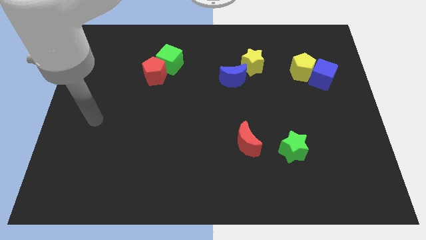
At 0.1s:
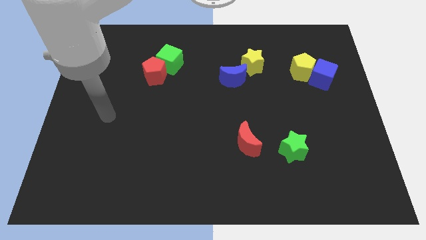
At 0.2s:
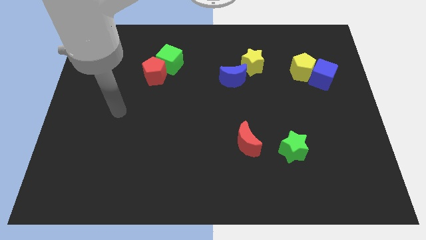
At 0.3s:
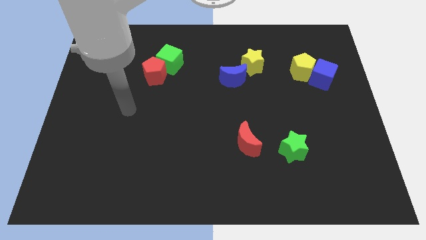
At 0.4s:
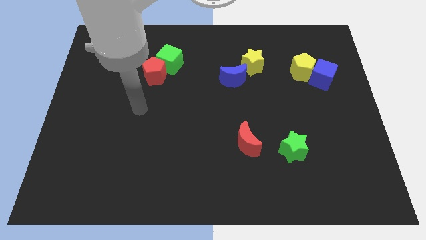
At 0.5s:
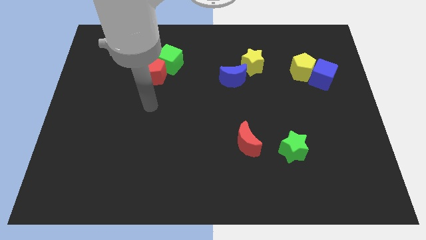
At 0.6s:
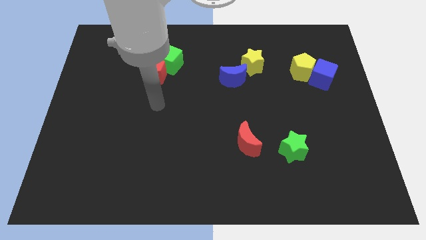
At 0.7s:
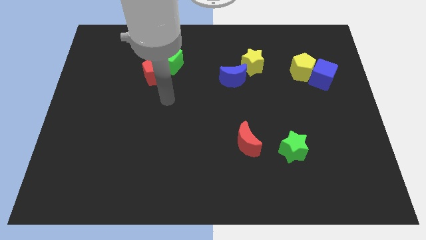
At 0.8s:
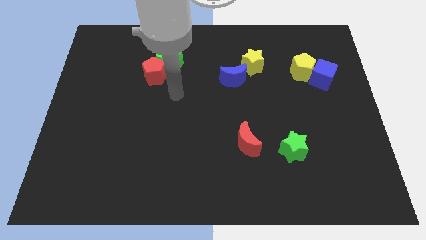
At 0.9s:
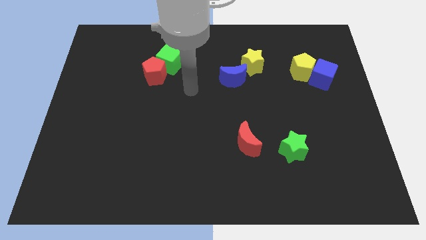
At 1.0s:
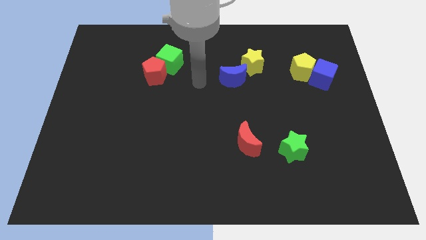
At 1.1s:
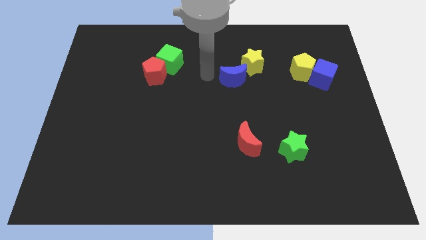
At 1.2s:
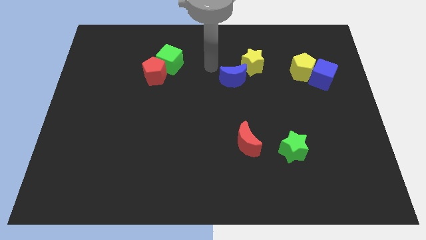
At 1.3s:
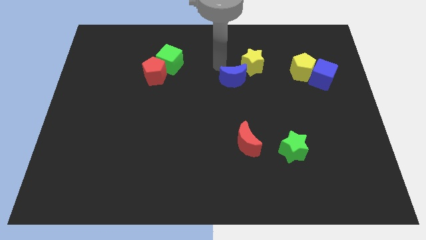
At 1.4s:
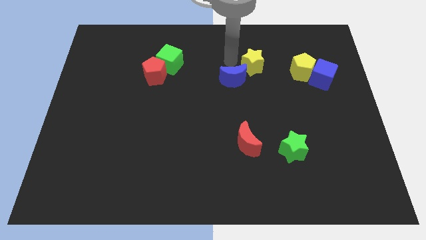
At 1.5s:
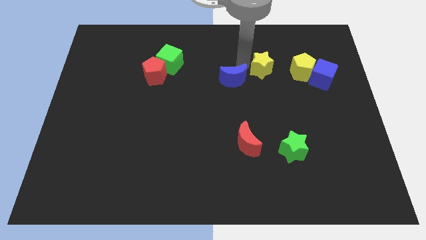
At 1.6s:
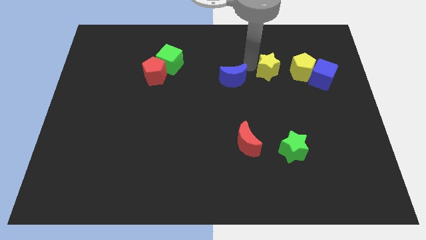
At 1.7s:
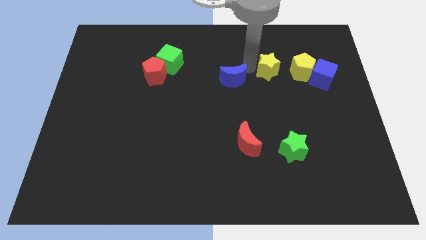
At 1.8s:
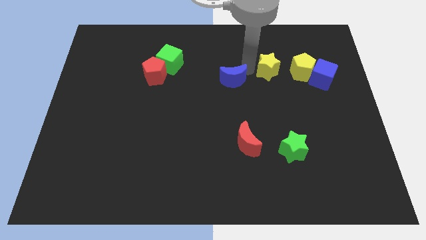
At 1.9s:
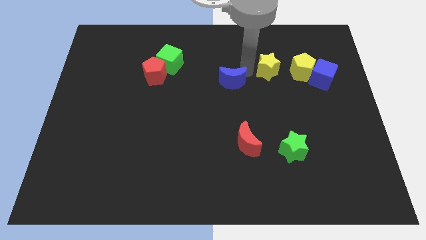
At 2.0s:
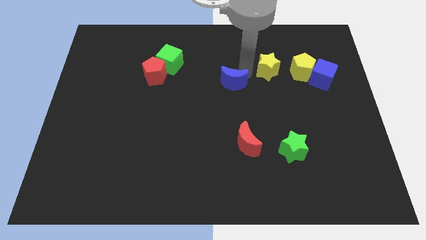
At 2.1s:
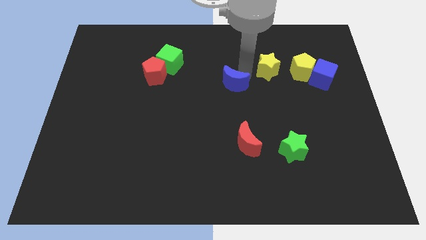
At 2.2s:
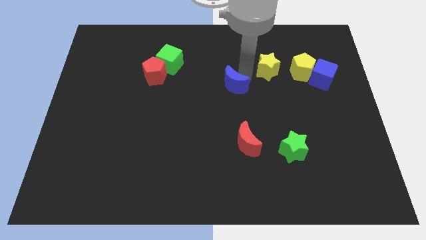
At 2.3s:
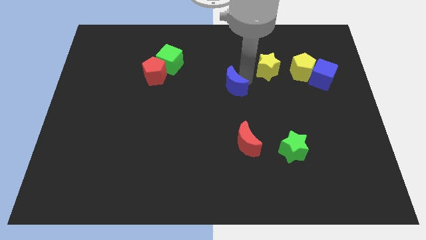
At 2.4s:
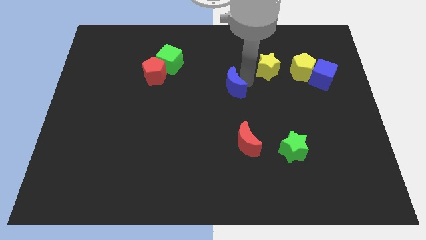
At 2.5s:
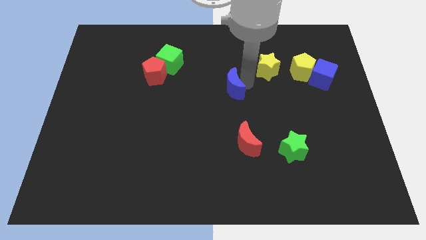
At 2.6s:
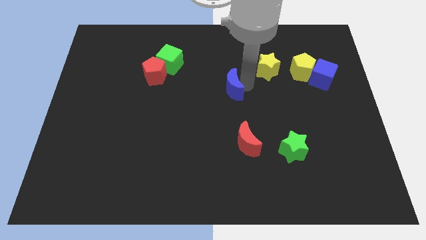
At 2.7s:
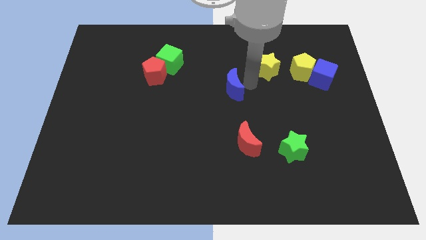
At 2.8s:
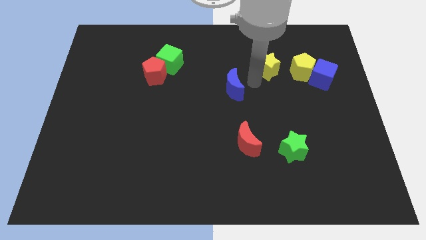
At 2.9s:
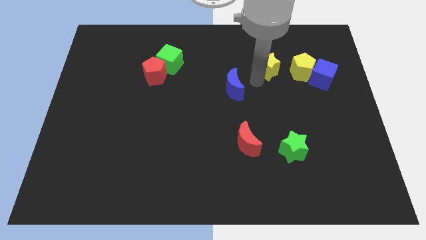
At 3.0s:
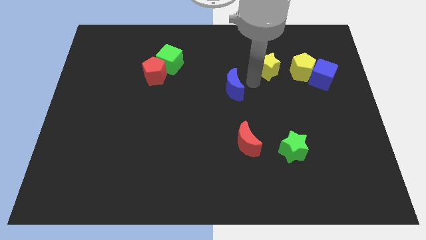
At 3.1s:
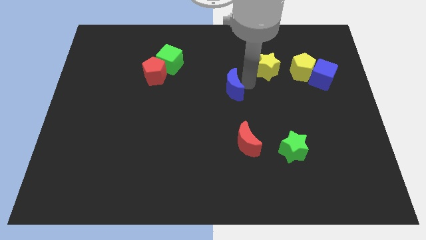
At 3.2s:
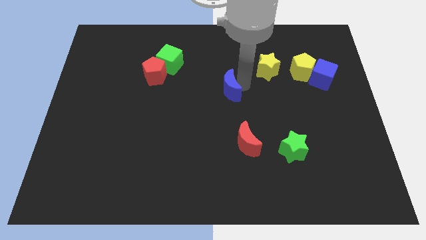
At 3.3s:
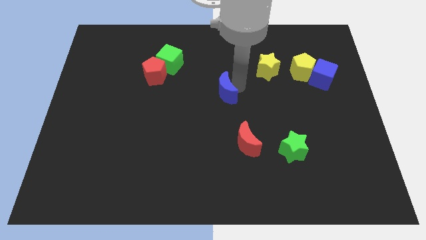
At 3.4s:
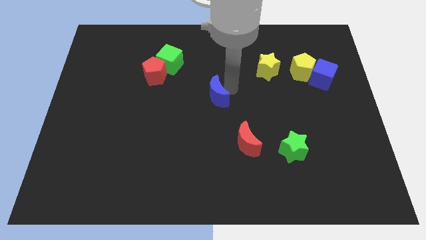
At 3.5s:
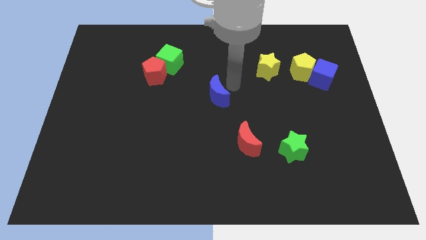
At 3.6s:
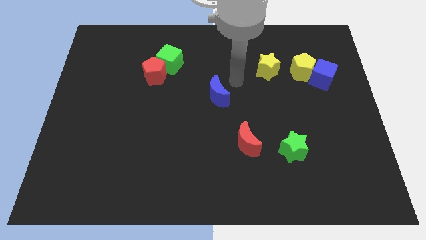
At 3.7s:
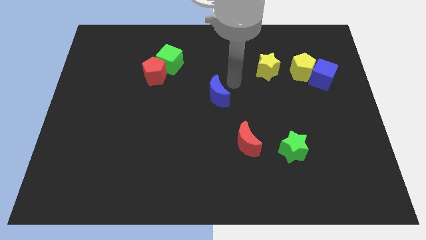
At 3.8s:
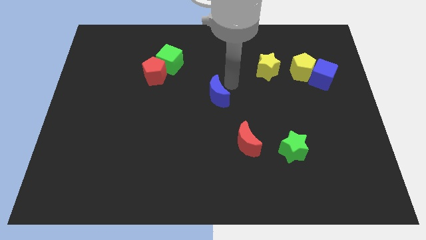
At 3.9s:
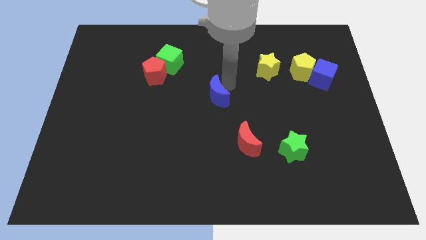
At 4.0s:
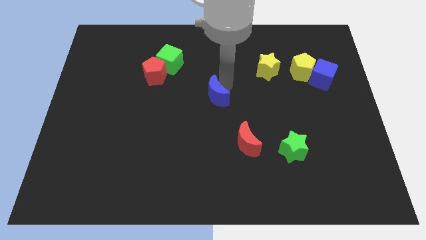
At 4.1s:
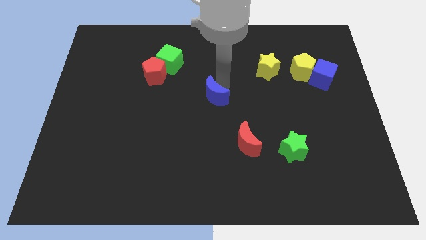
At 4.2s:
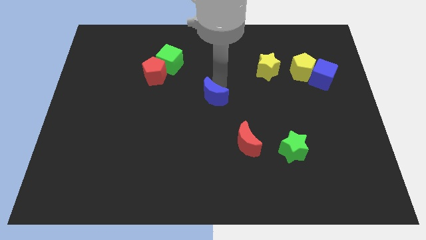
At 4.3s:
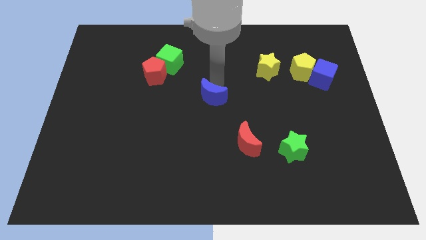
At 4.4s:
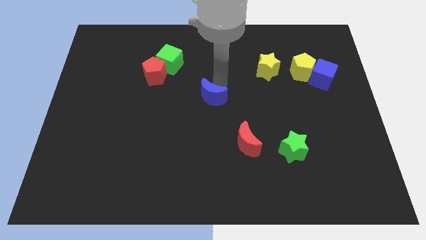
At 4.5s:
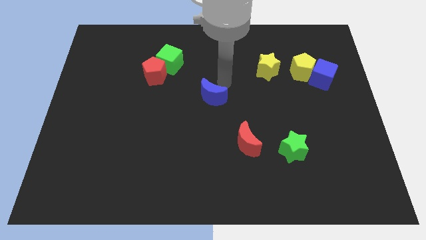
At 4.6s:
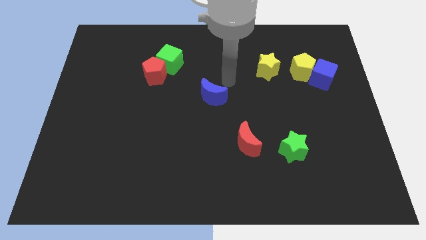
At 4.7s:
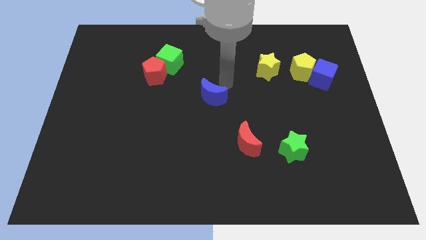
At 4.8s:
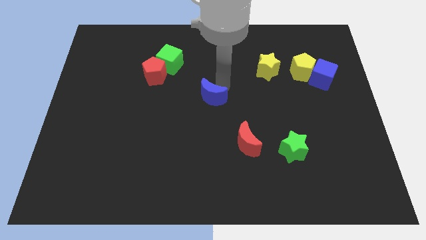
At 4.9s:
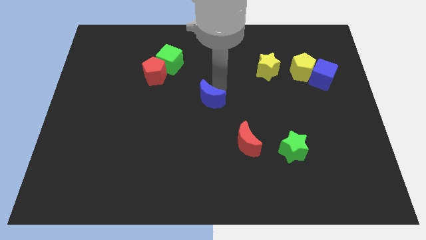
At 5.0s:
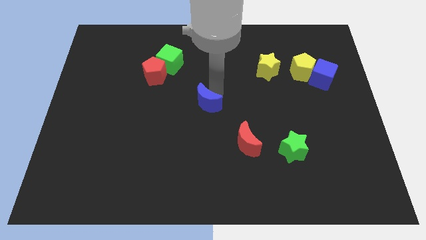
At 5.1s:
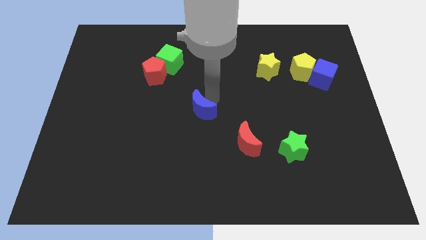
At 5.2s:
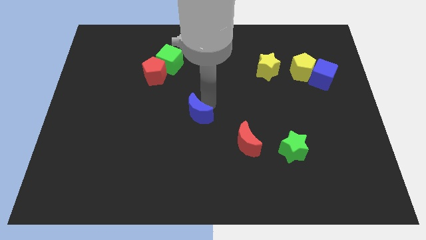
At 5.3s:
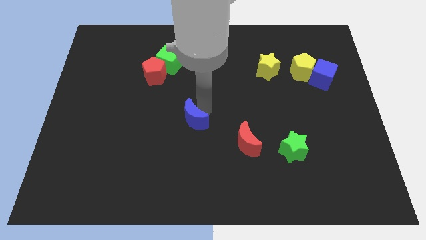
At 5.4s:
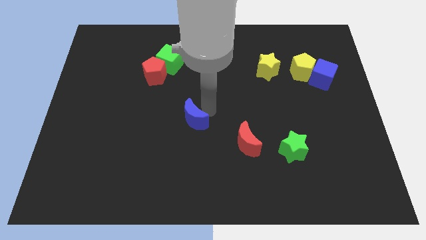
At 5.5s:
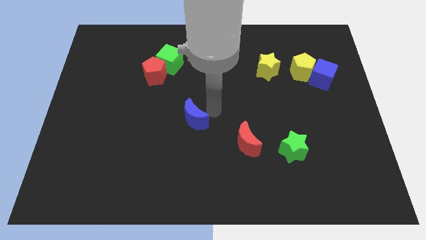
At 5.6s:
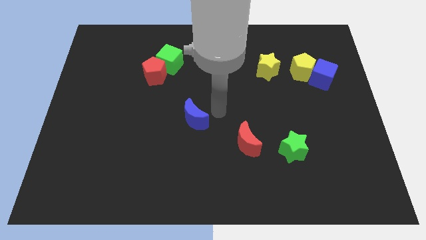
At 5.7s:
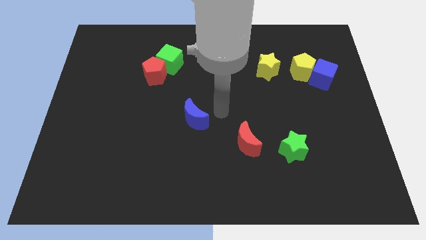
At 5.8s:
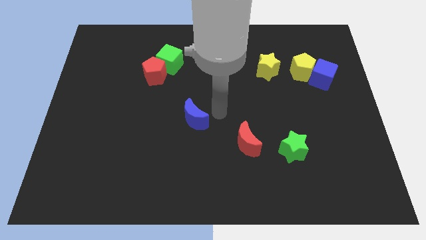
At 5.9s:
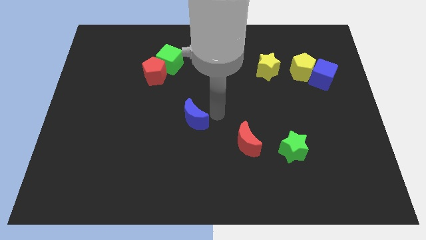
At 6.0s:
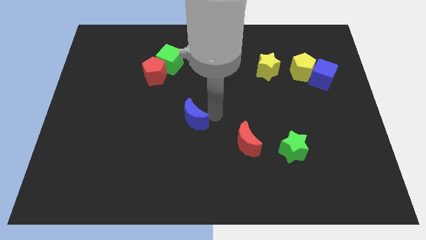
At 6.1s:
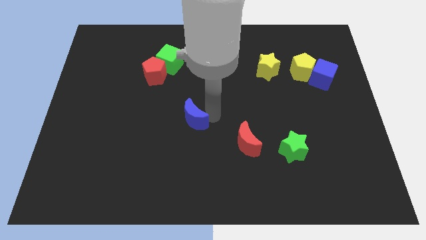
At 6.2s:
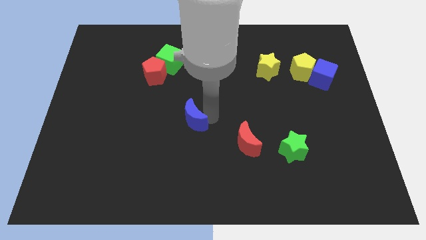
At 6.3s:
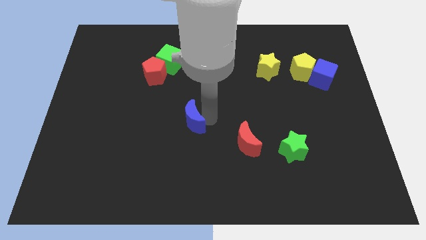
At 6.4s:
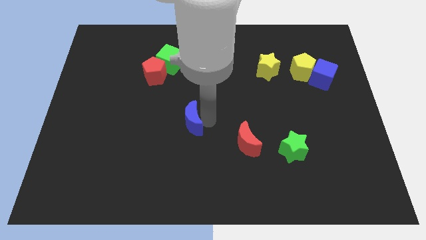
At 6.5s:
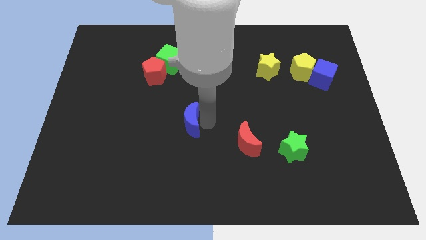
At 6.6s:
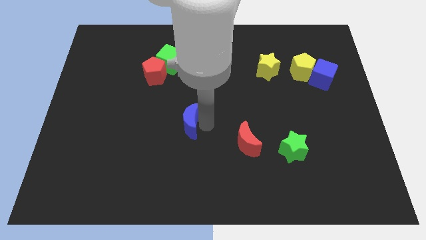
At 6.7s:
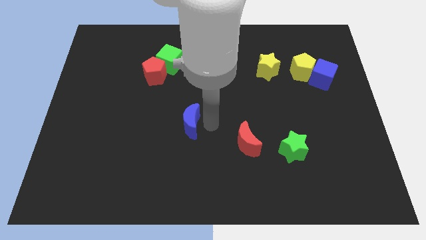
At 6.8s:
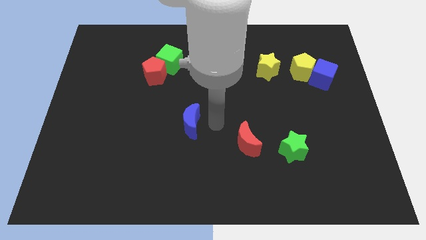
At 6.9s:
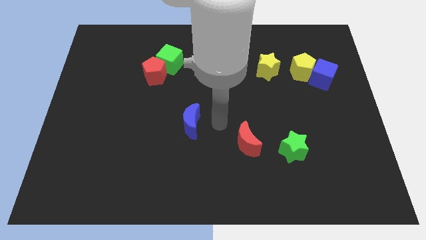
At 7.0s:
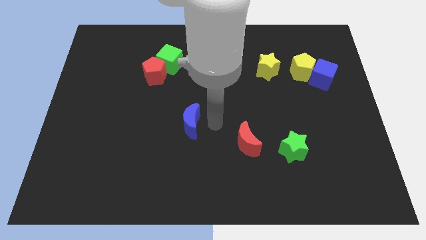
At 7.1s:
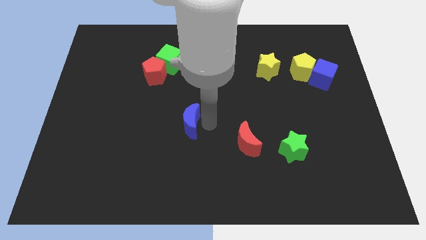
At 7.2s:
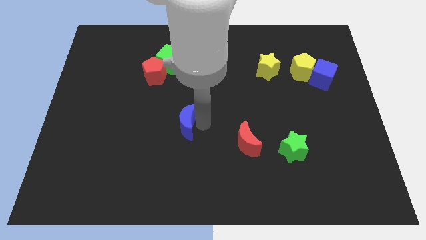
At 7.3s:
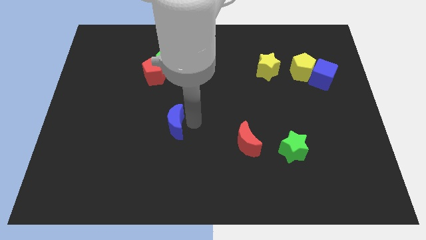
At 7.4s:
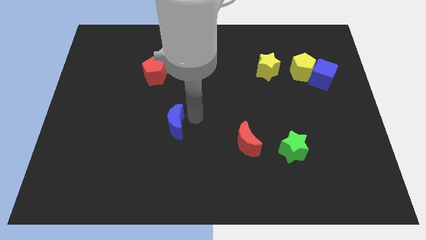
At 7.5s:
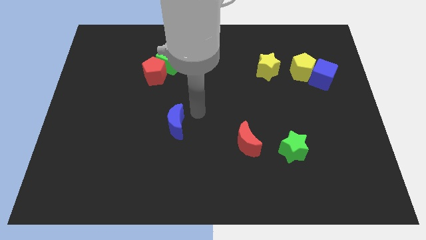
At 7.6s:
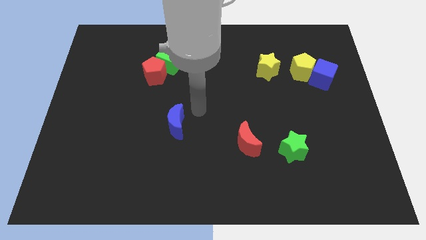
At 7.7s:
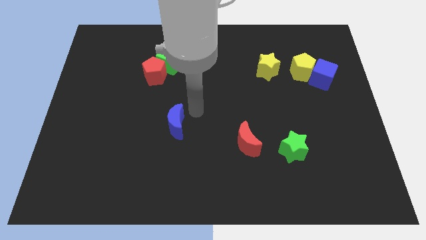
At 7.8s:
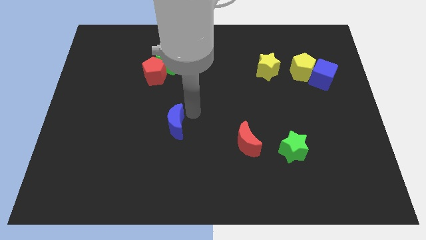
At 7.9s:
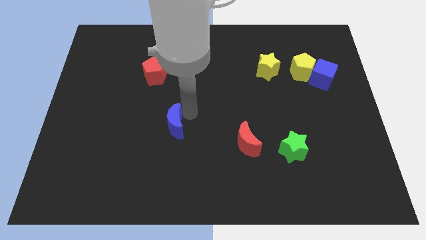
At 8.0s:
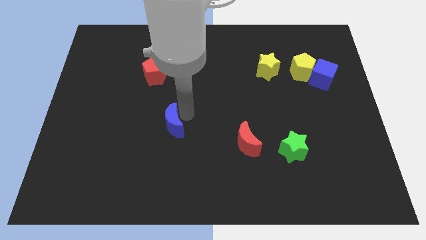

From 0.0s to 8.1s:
move the blue moon down and then left
